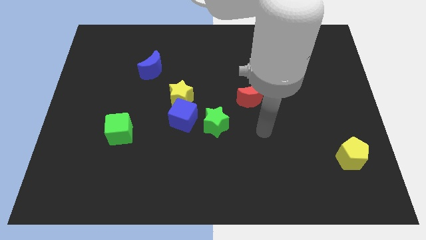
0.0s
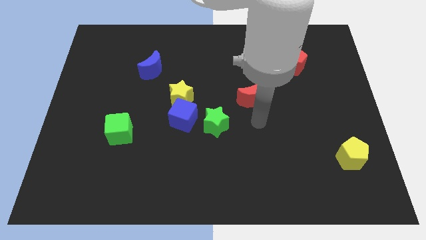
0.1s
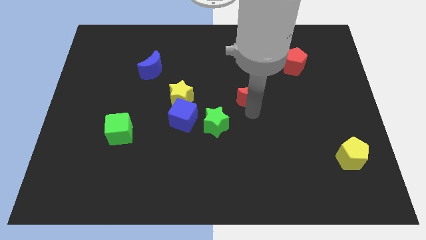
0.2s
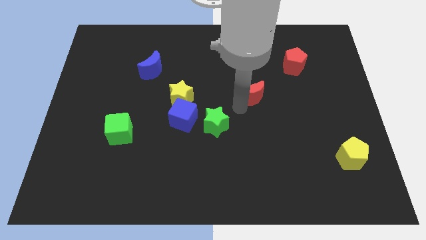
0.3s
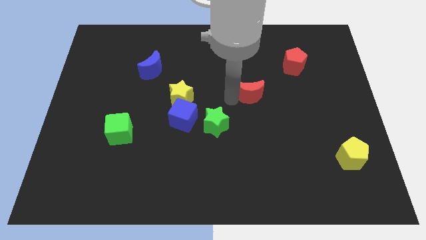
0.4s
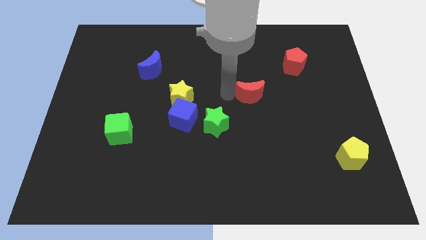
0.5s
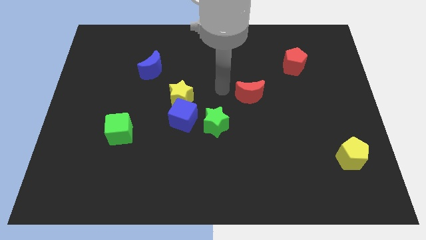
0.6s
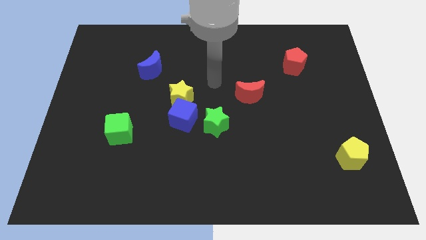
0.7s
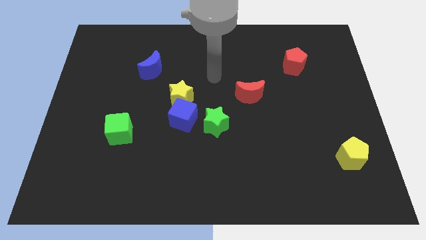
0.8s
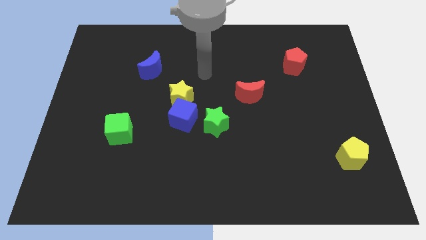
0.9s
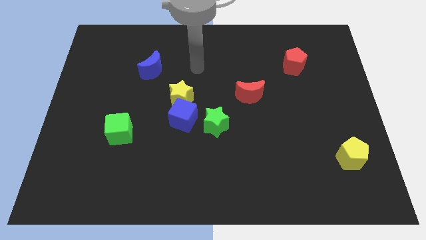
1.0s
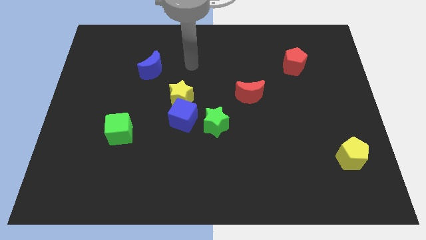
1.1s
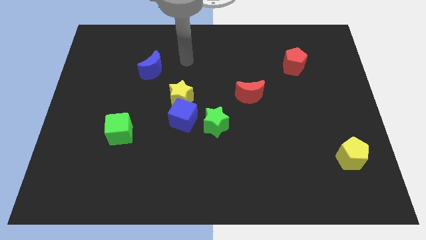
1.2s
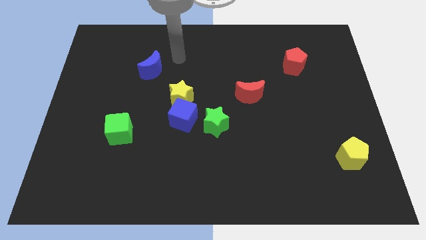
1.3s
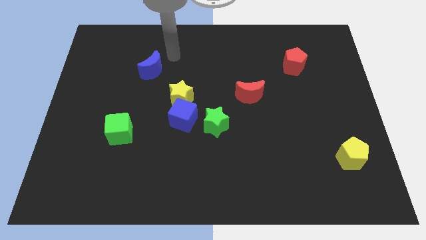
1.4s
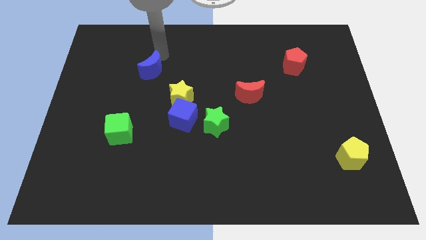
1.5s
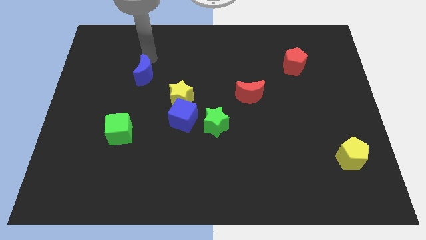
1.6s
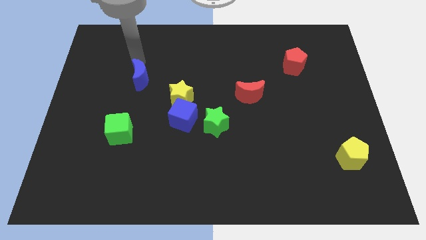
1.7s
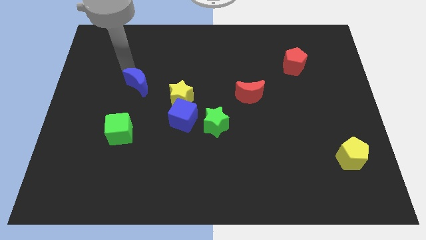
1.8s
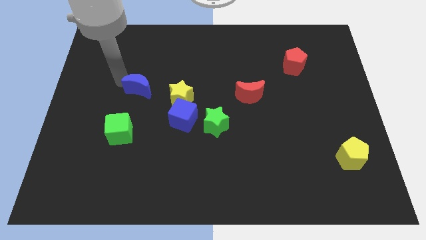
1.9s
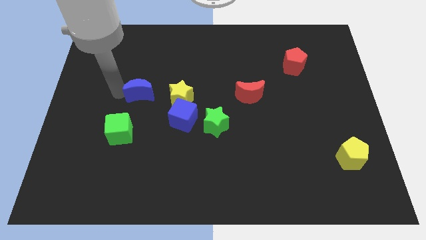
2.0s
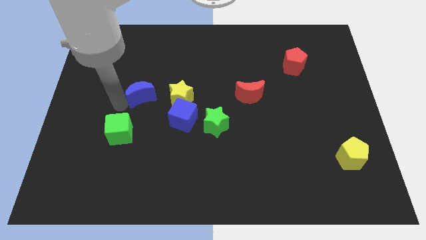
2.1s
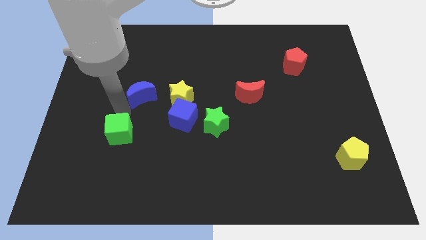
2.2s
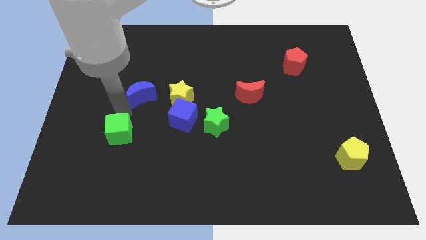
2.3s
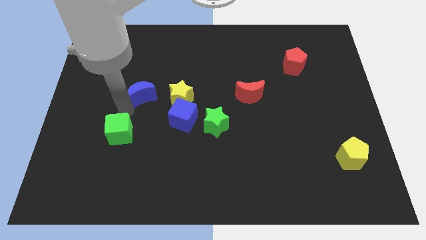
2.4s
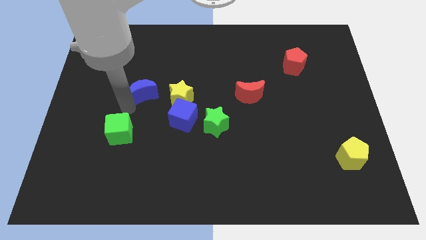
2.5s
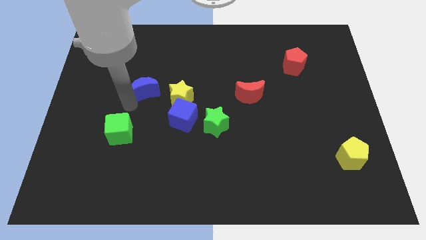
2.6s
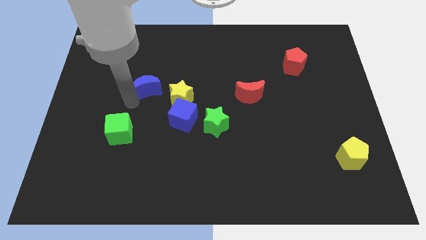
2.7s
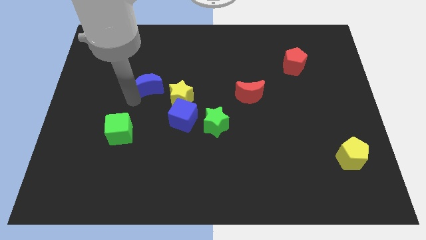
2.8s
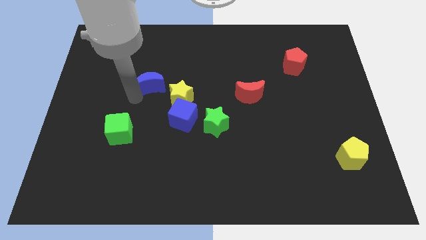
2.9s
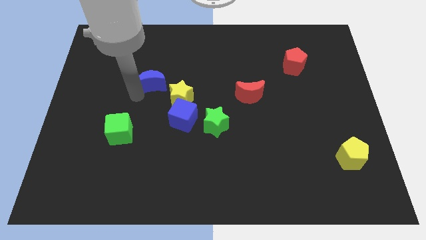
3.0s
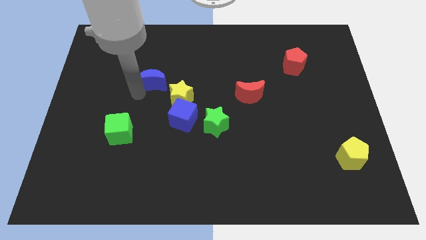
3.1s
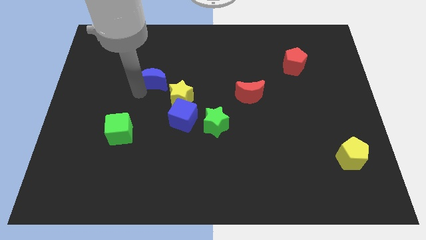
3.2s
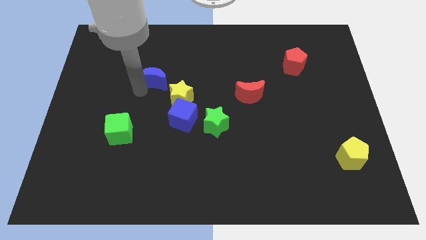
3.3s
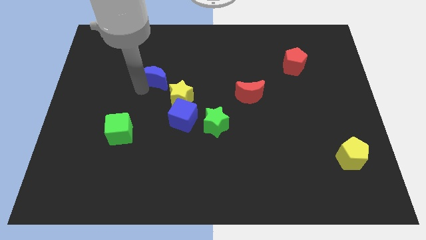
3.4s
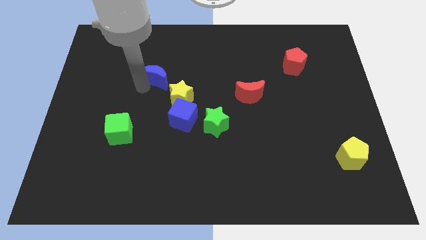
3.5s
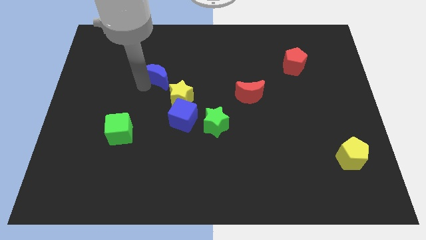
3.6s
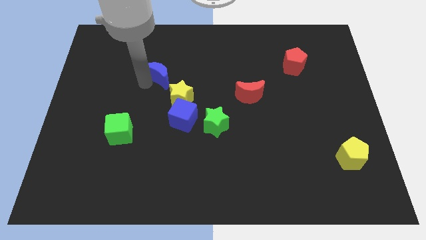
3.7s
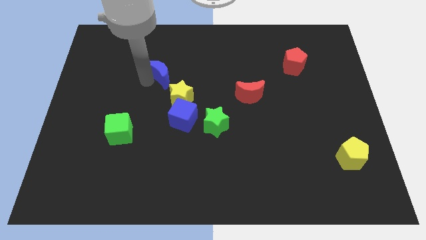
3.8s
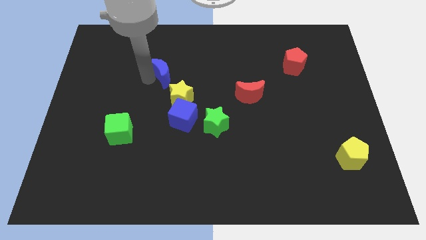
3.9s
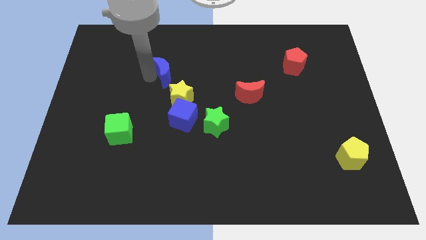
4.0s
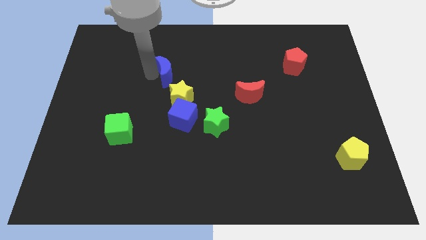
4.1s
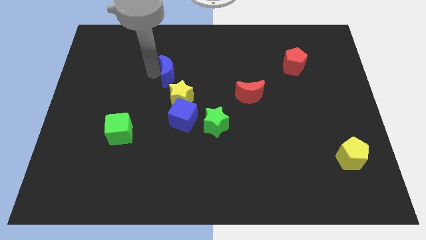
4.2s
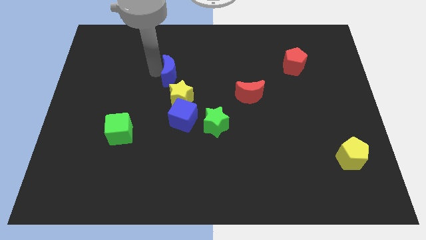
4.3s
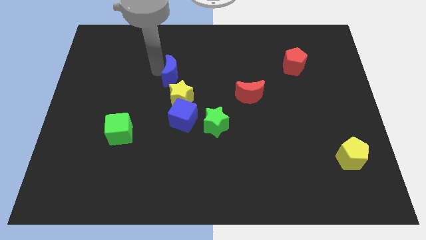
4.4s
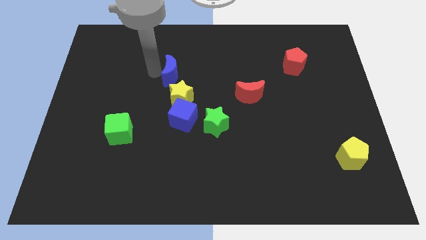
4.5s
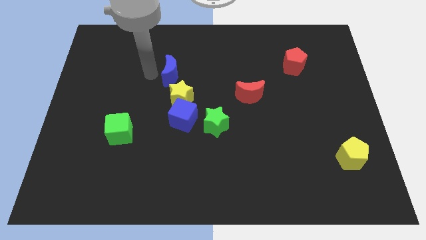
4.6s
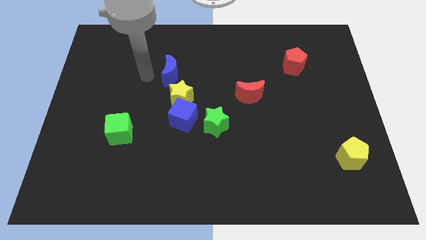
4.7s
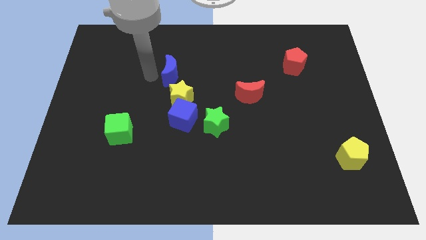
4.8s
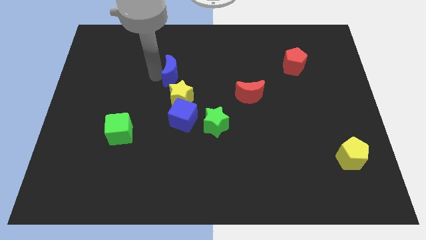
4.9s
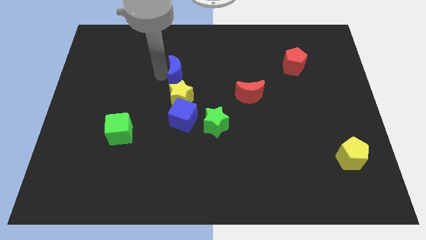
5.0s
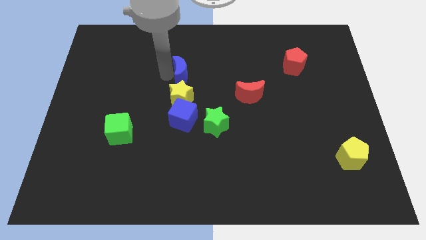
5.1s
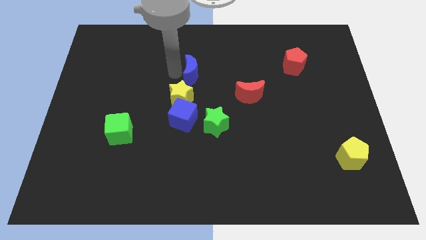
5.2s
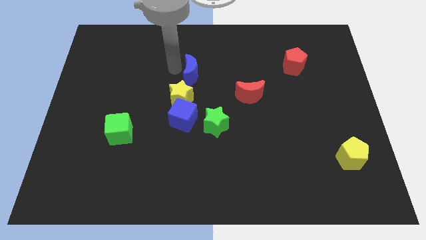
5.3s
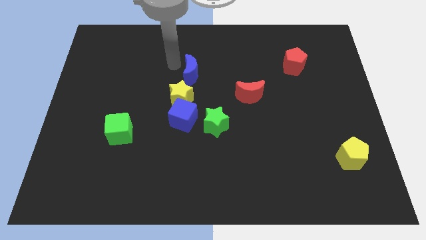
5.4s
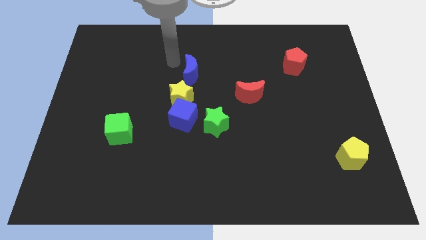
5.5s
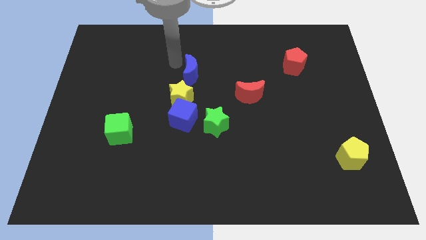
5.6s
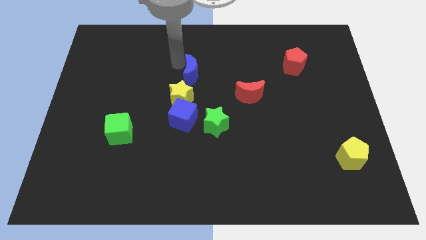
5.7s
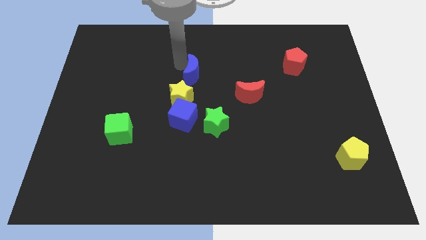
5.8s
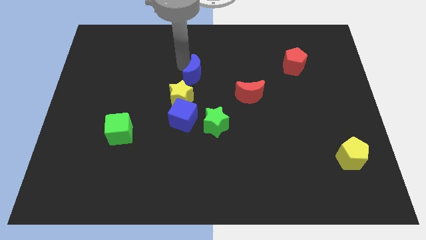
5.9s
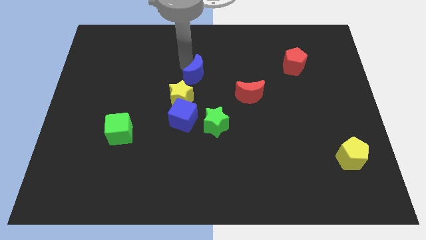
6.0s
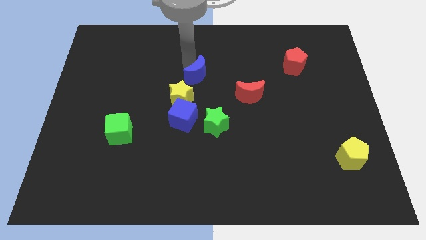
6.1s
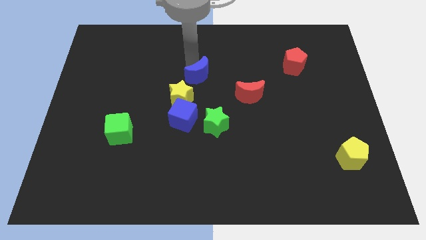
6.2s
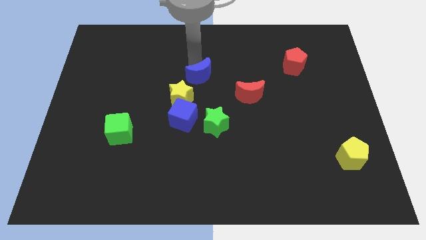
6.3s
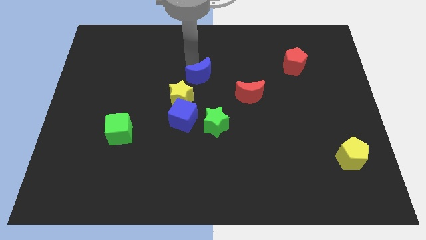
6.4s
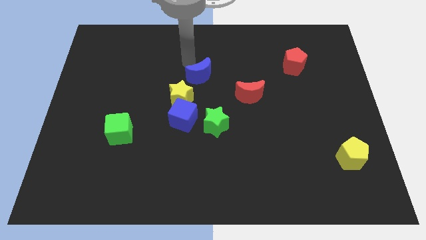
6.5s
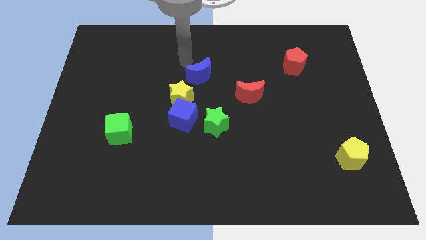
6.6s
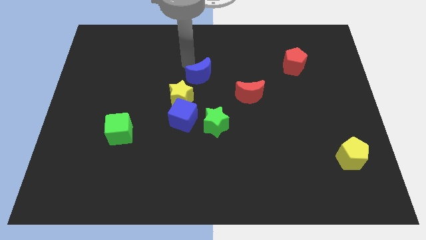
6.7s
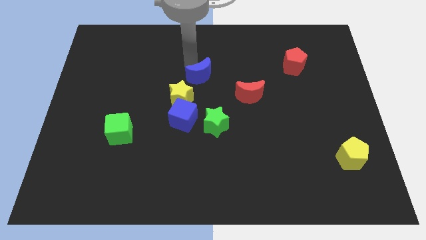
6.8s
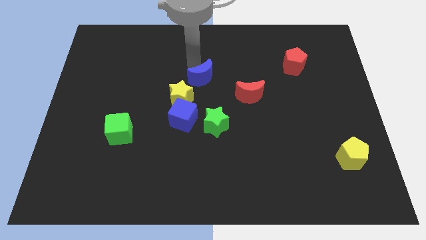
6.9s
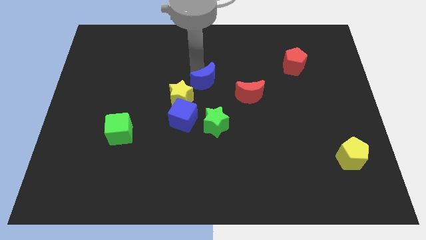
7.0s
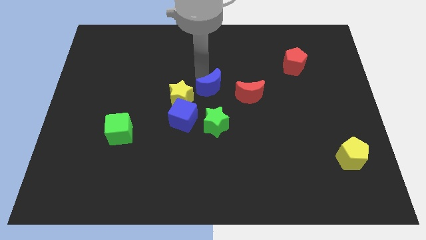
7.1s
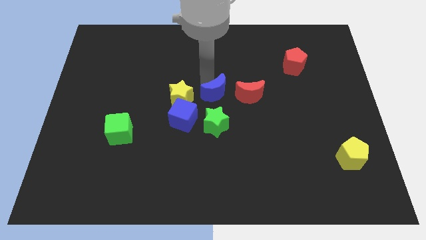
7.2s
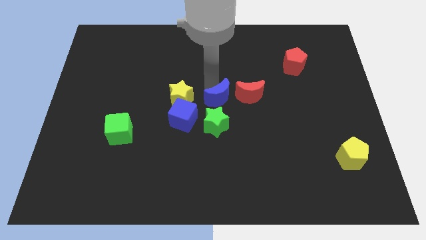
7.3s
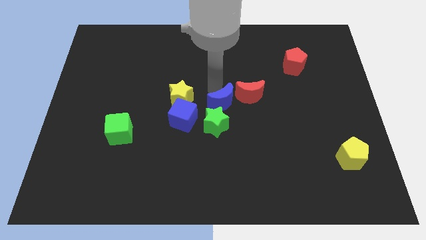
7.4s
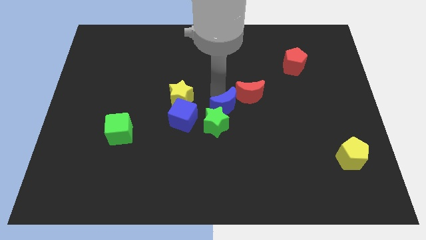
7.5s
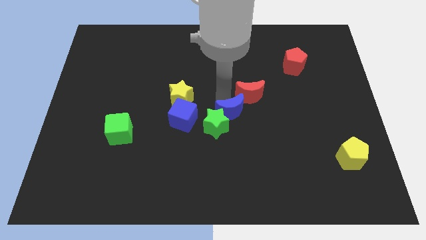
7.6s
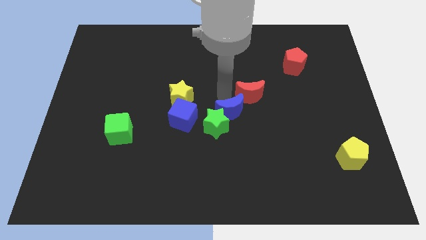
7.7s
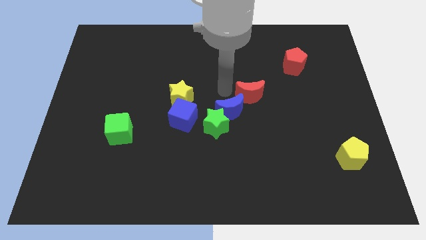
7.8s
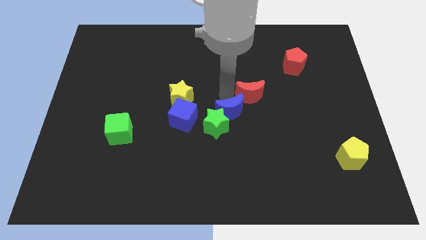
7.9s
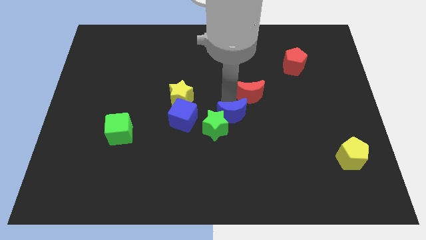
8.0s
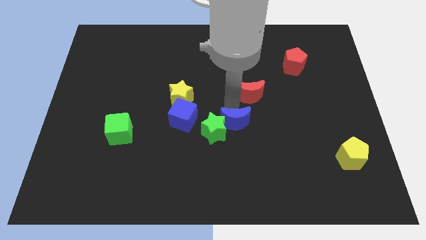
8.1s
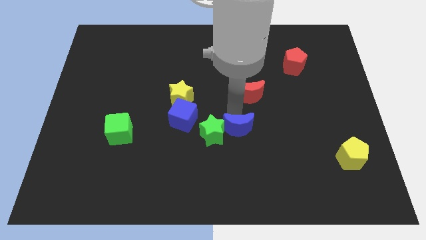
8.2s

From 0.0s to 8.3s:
put the blue moon diagonally down and to the right of the green star
